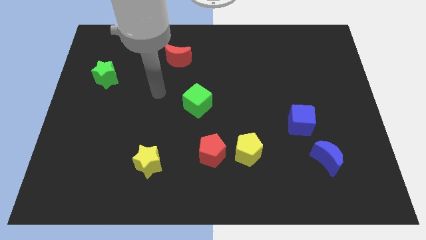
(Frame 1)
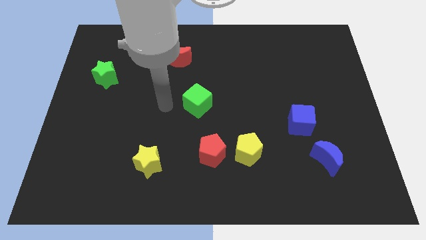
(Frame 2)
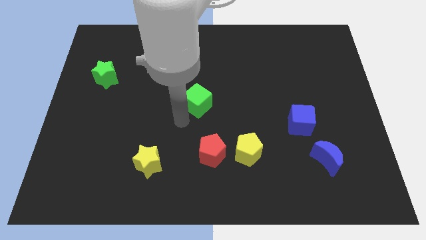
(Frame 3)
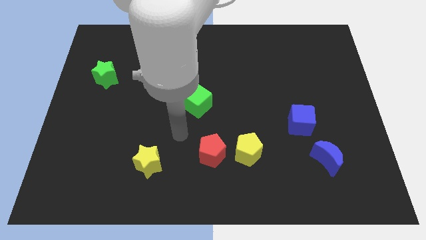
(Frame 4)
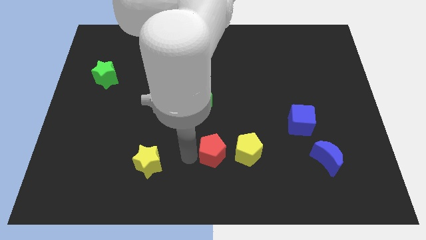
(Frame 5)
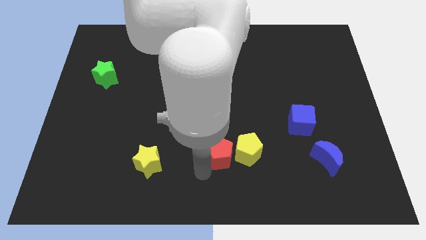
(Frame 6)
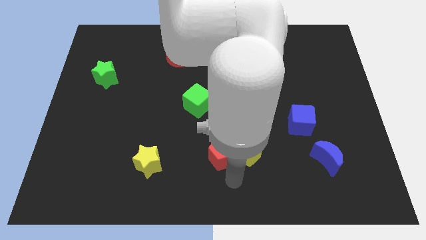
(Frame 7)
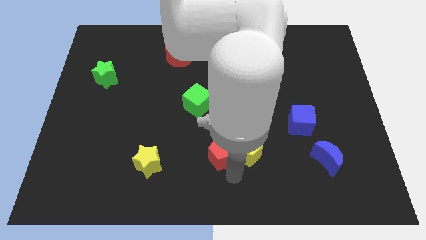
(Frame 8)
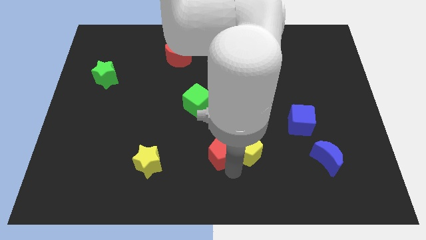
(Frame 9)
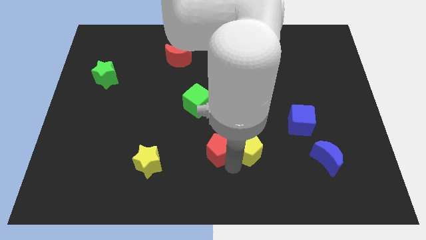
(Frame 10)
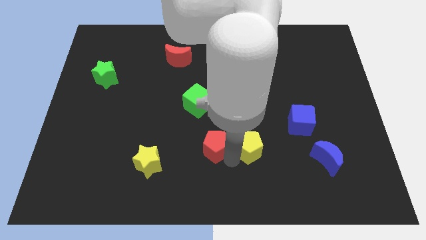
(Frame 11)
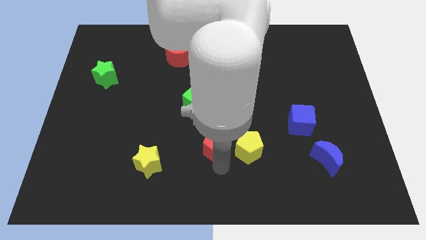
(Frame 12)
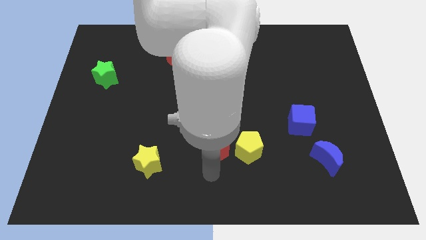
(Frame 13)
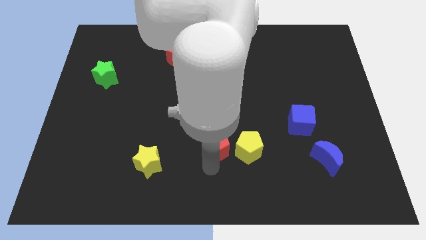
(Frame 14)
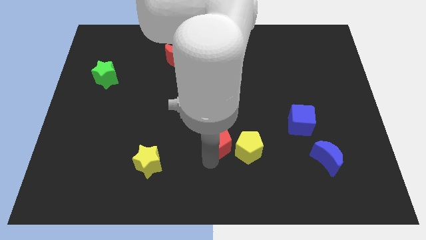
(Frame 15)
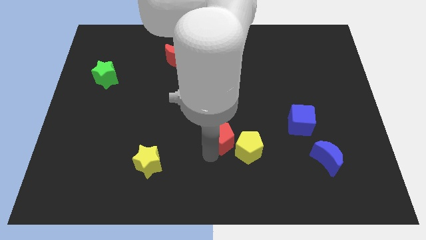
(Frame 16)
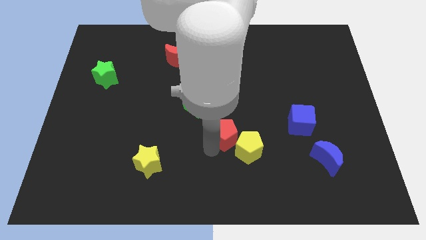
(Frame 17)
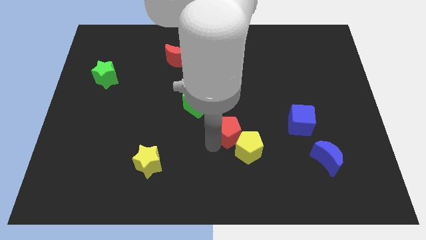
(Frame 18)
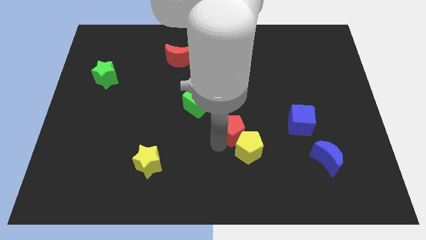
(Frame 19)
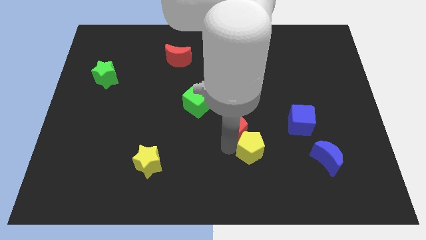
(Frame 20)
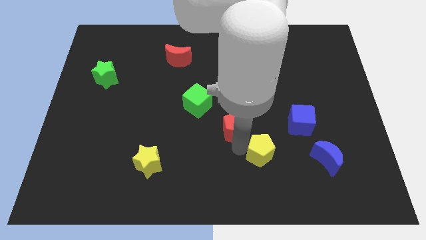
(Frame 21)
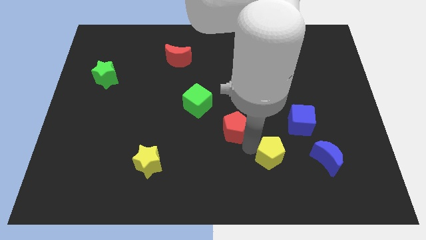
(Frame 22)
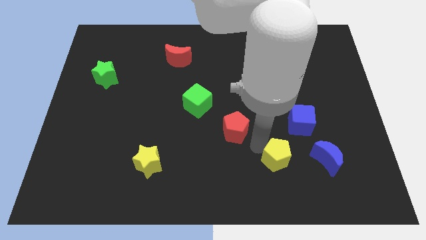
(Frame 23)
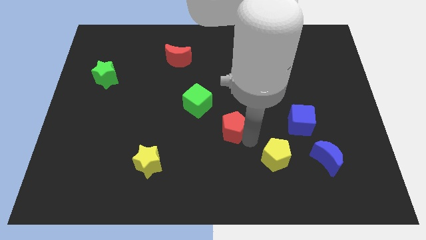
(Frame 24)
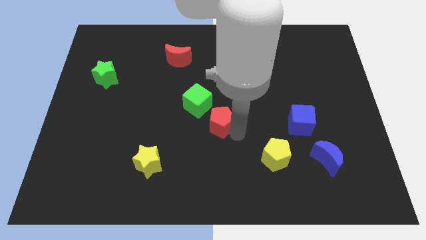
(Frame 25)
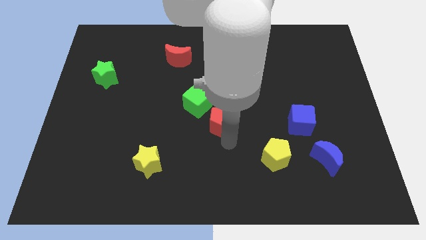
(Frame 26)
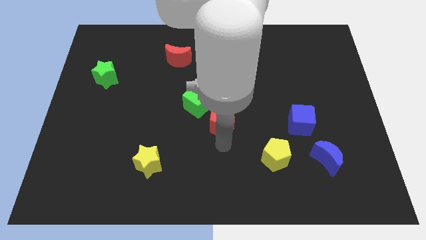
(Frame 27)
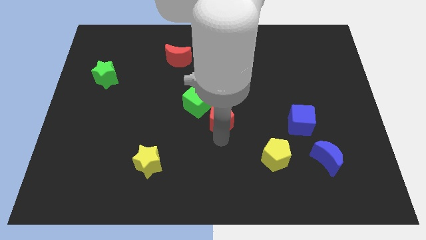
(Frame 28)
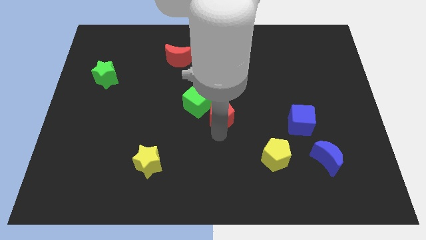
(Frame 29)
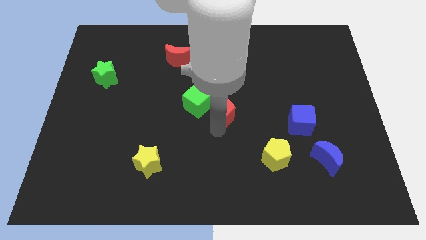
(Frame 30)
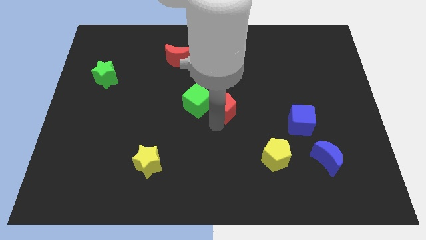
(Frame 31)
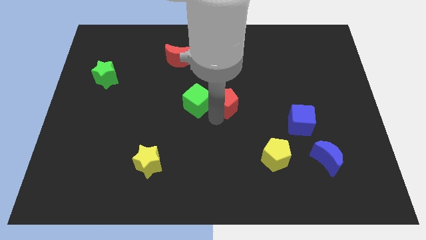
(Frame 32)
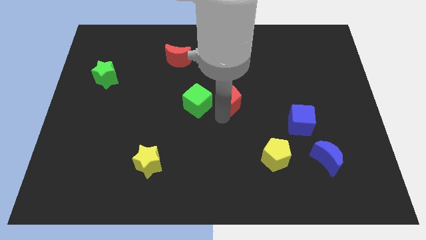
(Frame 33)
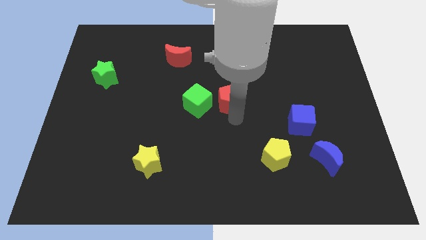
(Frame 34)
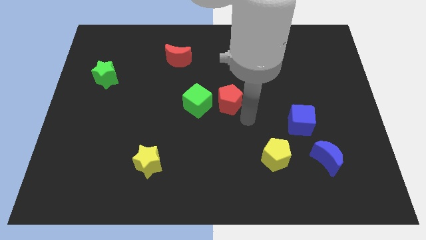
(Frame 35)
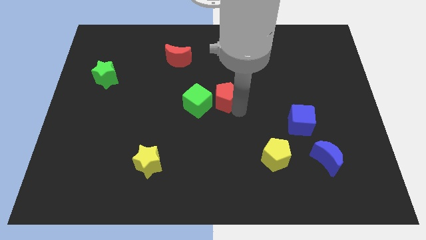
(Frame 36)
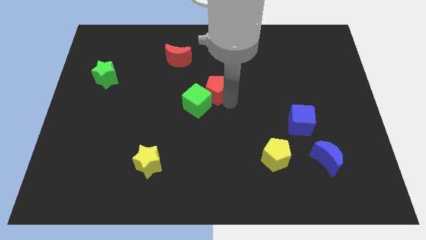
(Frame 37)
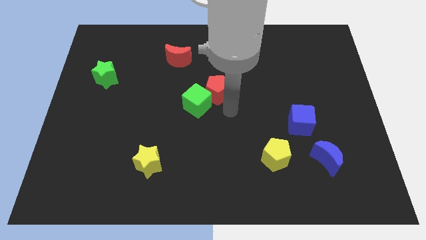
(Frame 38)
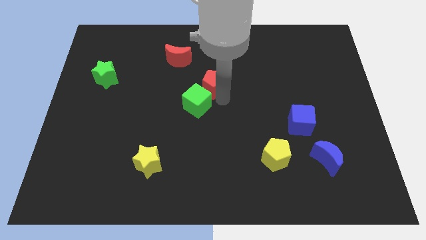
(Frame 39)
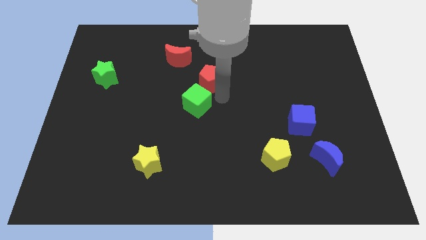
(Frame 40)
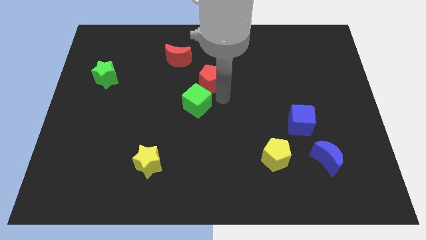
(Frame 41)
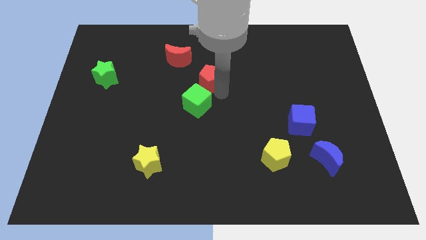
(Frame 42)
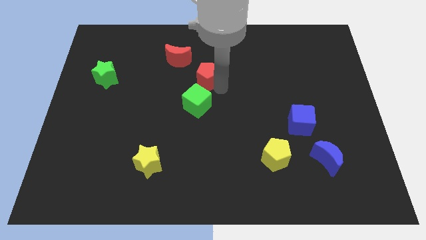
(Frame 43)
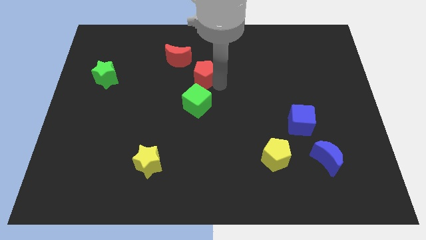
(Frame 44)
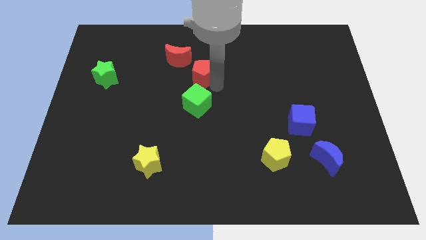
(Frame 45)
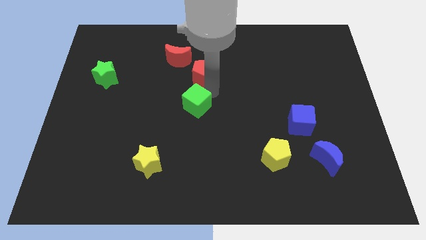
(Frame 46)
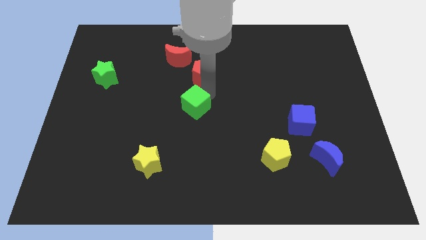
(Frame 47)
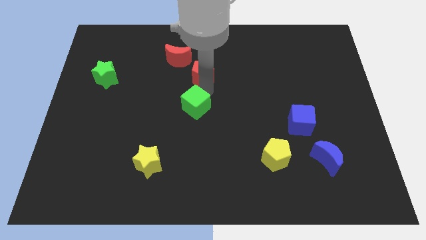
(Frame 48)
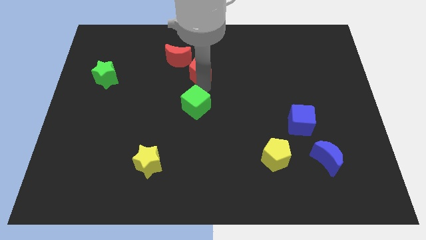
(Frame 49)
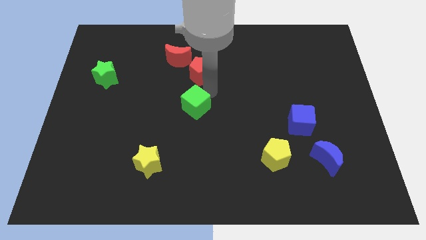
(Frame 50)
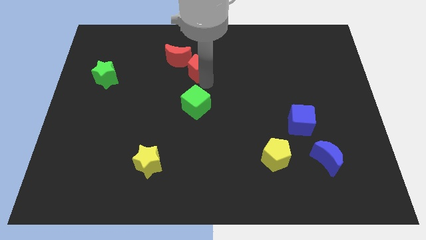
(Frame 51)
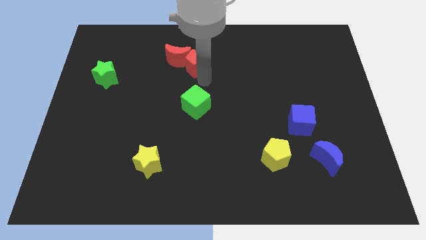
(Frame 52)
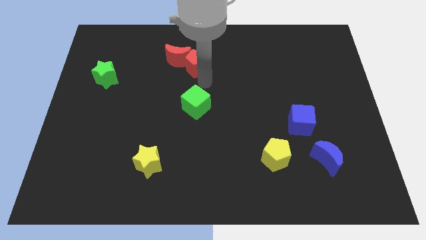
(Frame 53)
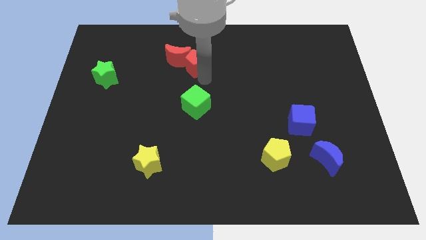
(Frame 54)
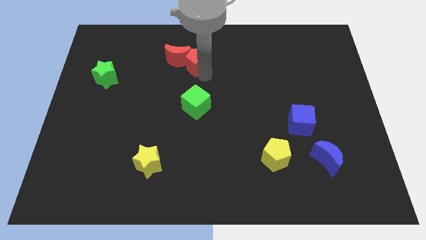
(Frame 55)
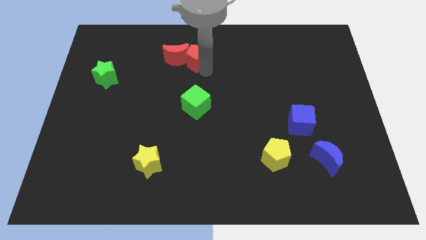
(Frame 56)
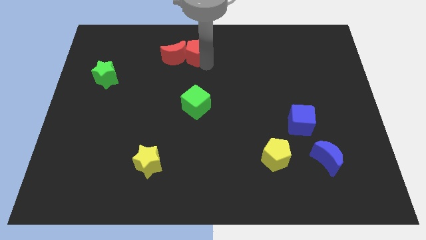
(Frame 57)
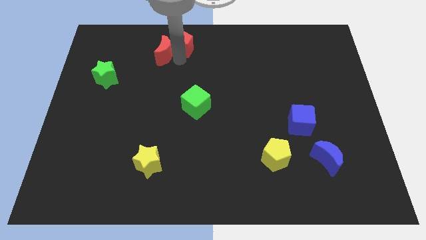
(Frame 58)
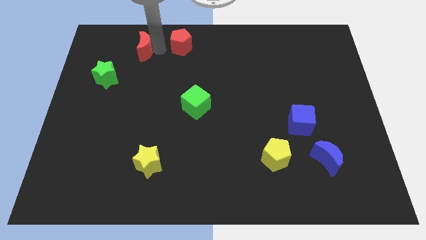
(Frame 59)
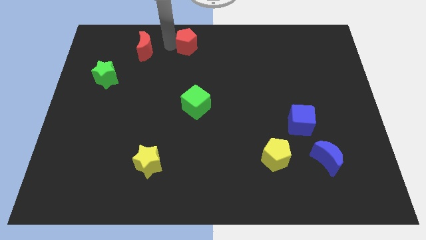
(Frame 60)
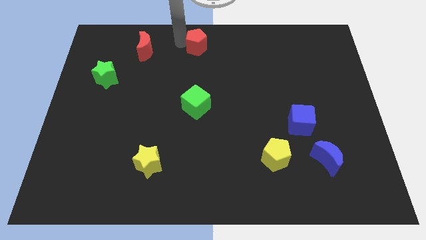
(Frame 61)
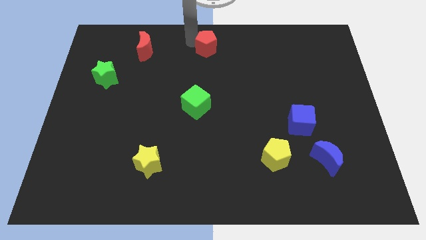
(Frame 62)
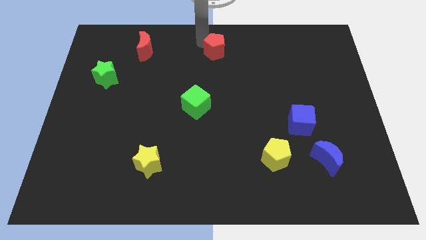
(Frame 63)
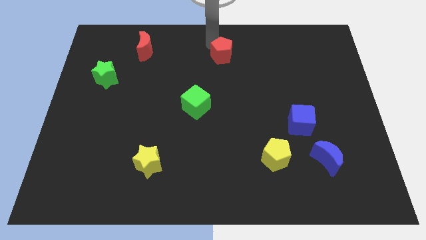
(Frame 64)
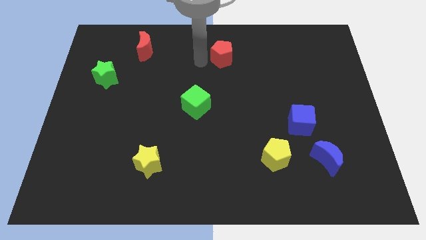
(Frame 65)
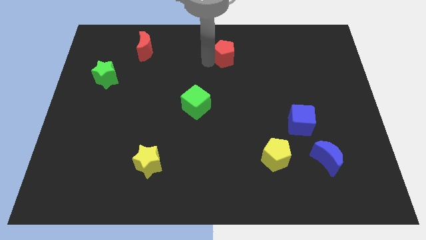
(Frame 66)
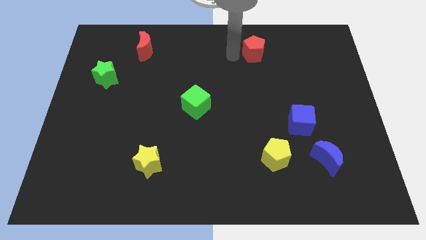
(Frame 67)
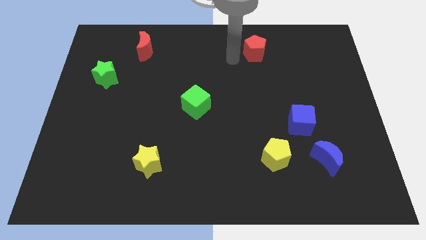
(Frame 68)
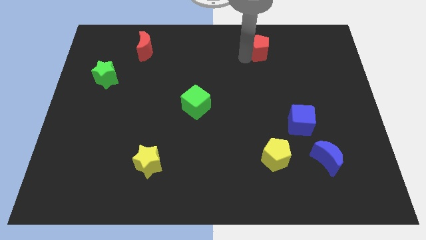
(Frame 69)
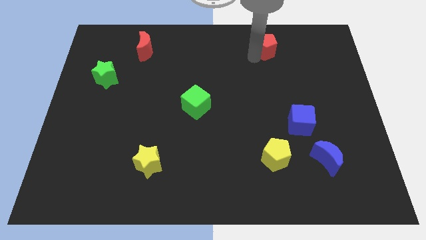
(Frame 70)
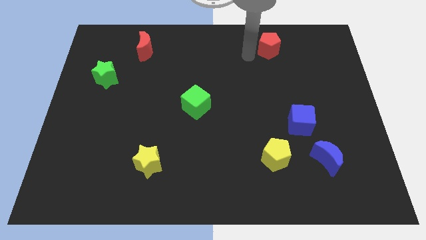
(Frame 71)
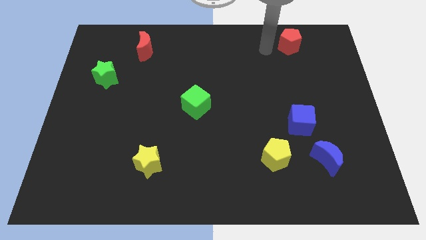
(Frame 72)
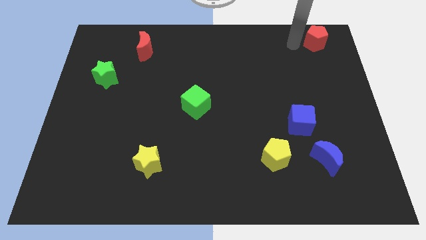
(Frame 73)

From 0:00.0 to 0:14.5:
slide the red pentagon to the top right
